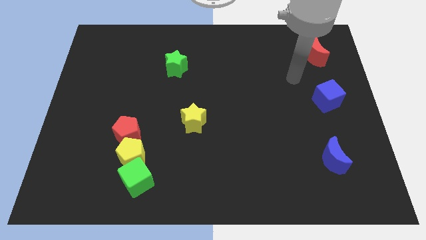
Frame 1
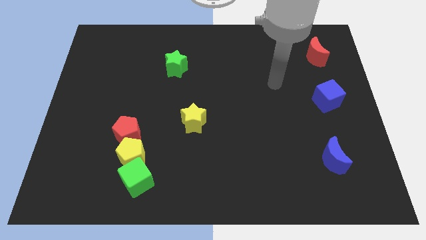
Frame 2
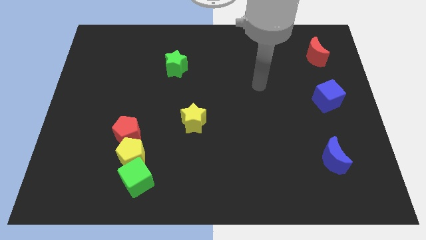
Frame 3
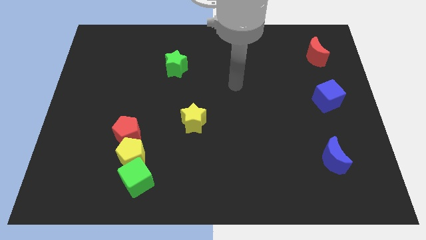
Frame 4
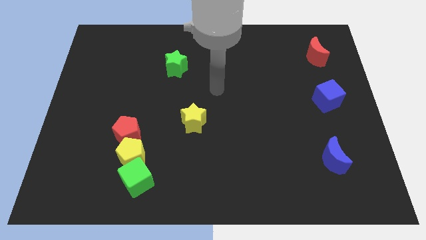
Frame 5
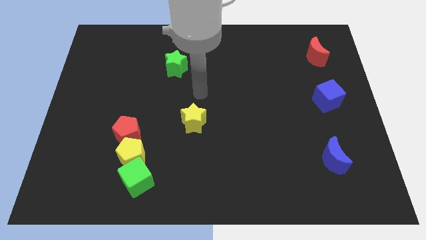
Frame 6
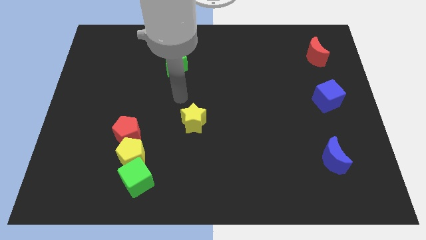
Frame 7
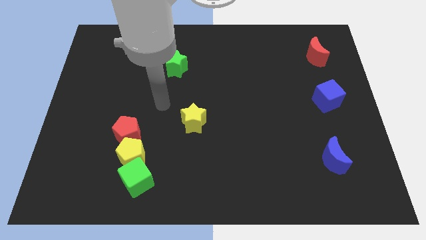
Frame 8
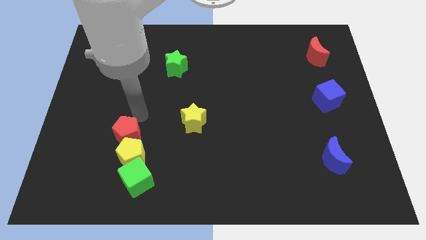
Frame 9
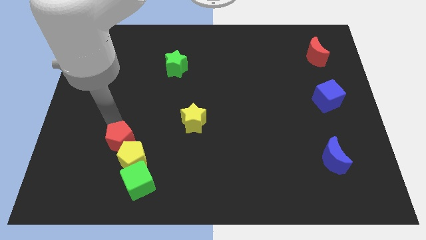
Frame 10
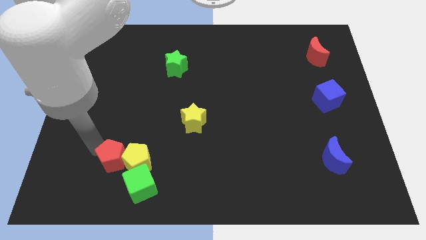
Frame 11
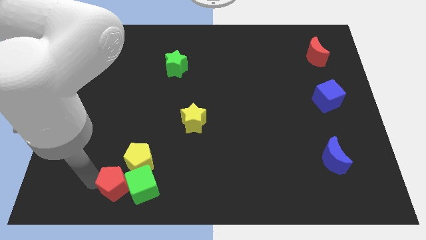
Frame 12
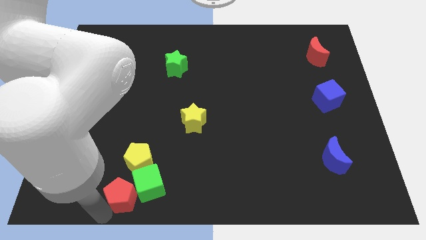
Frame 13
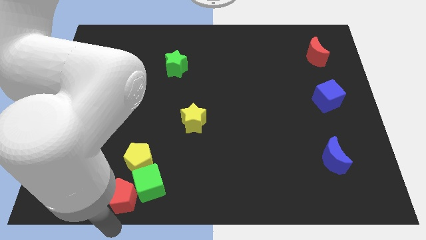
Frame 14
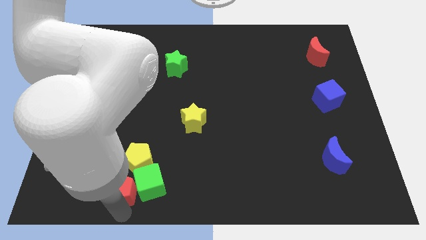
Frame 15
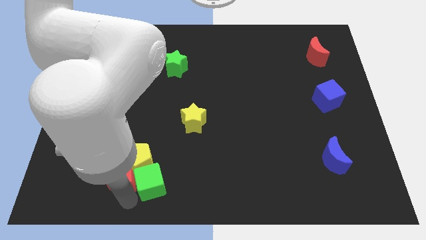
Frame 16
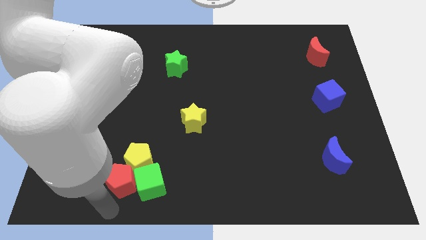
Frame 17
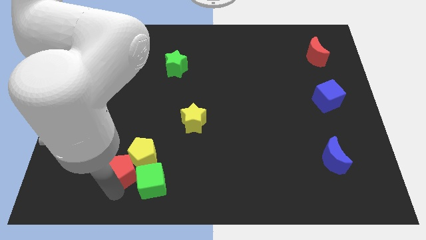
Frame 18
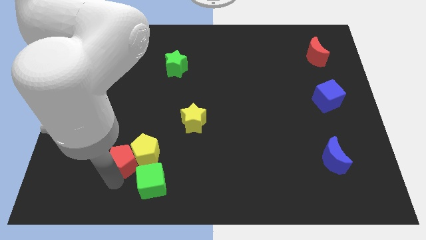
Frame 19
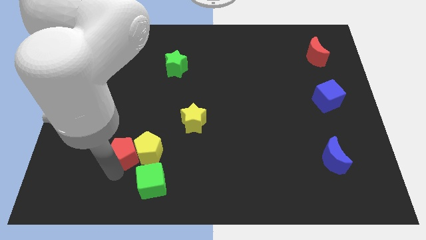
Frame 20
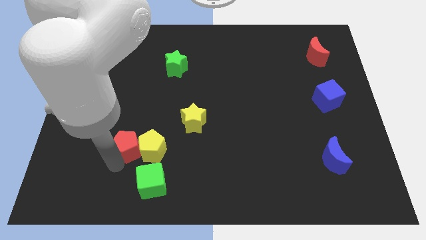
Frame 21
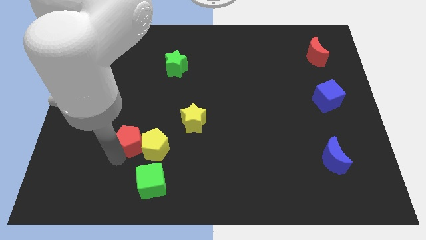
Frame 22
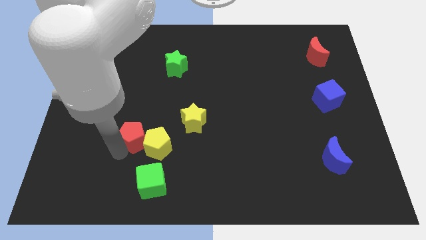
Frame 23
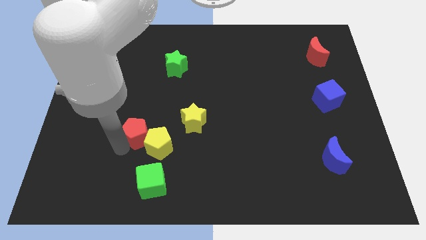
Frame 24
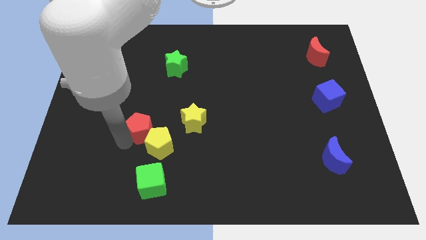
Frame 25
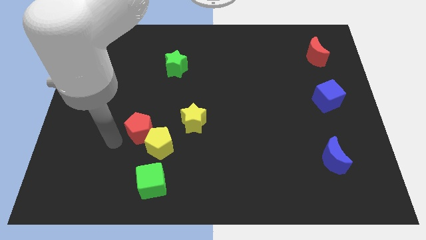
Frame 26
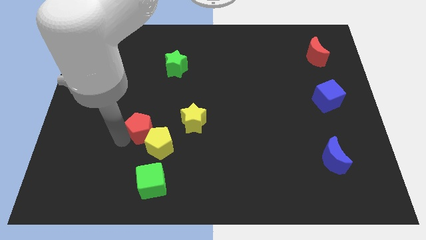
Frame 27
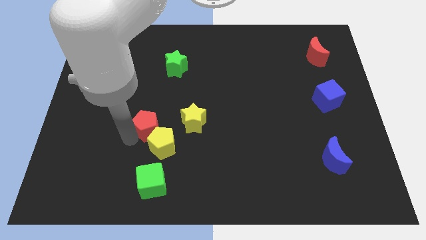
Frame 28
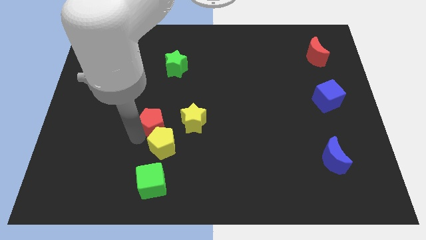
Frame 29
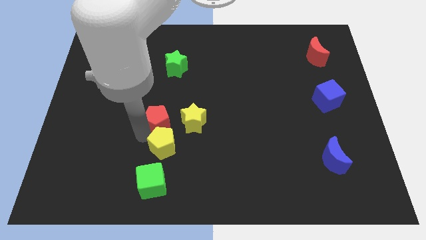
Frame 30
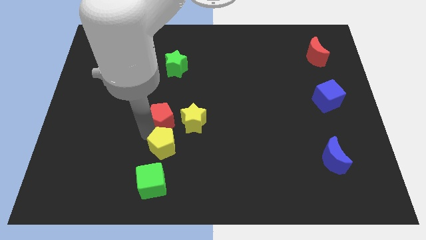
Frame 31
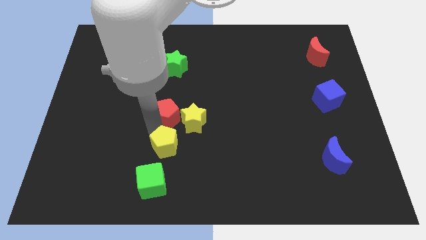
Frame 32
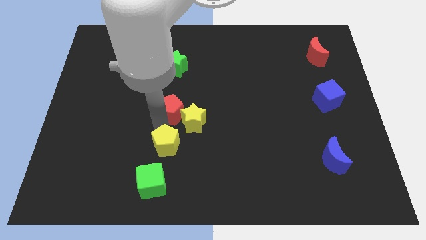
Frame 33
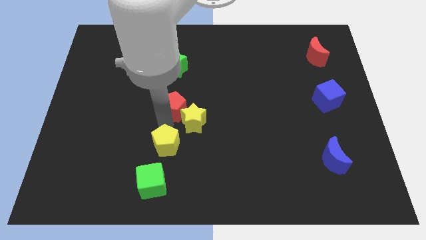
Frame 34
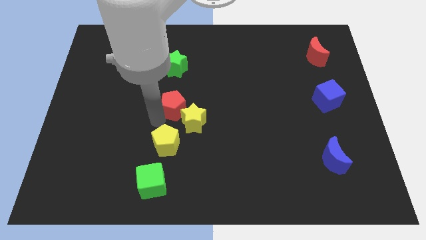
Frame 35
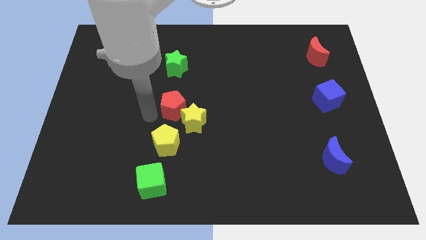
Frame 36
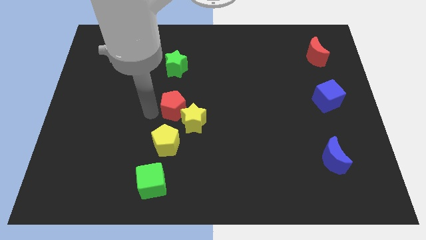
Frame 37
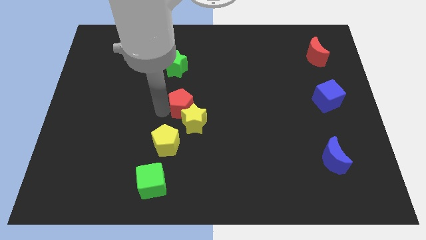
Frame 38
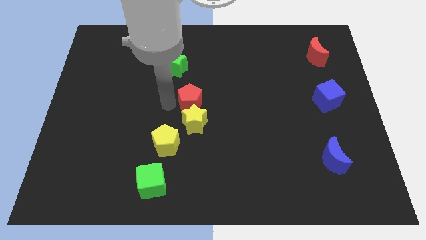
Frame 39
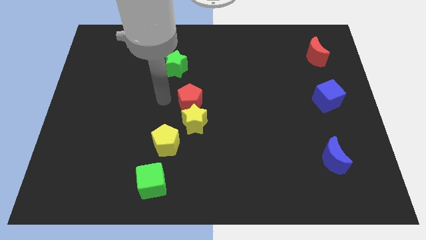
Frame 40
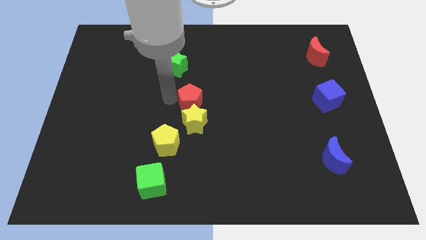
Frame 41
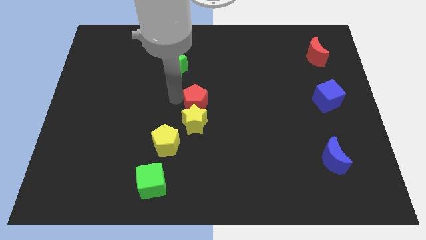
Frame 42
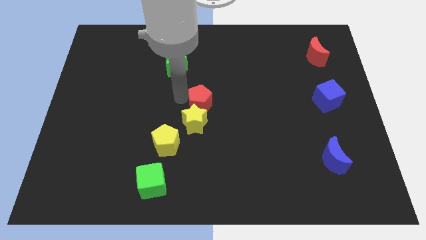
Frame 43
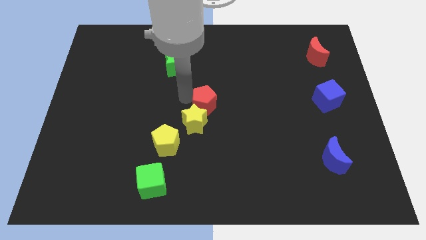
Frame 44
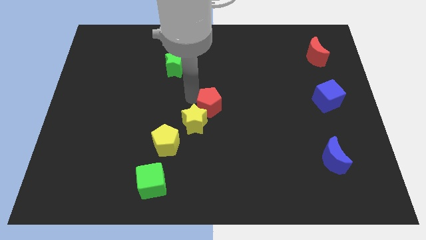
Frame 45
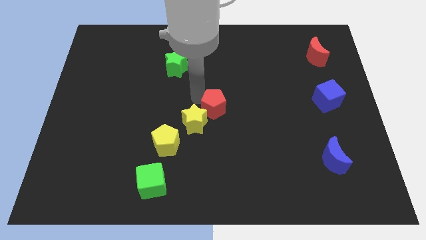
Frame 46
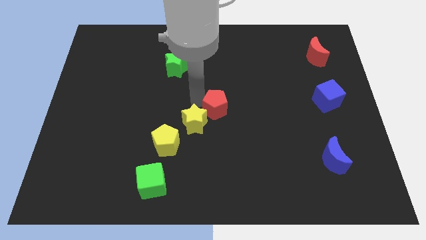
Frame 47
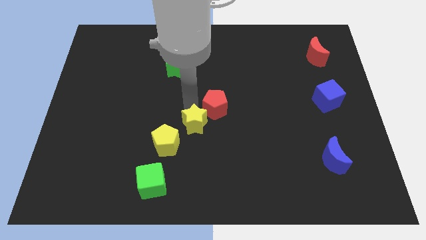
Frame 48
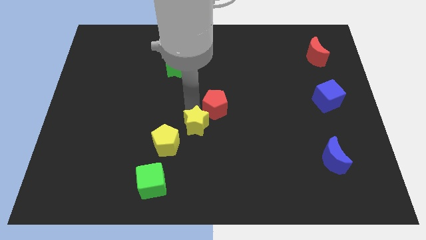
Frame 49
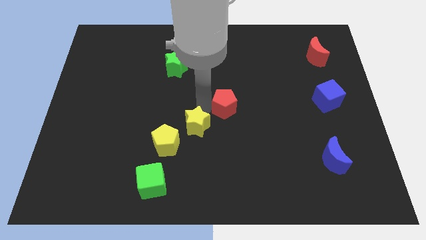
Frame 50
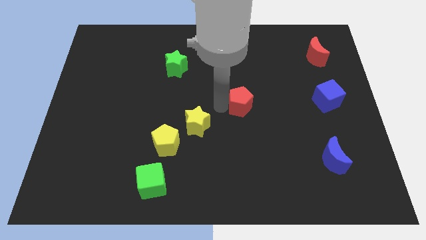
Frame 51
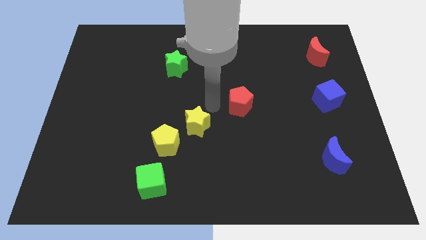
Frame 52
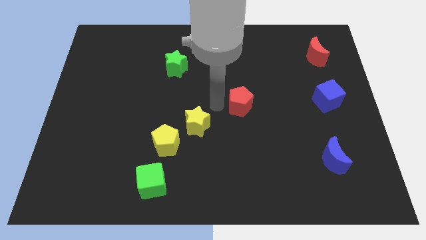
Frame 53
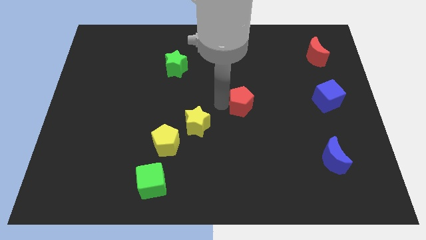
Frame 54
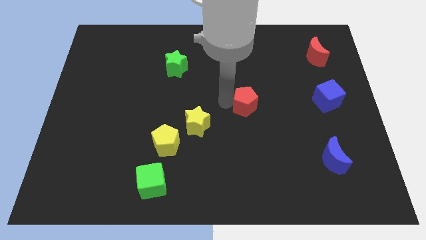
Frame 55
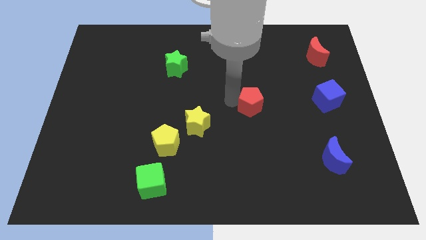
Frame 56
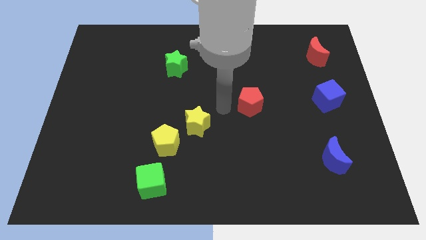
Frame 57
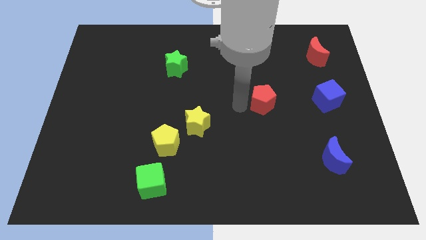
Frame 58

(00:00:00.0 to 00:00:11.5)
slide the red pentagon to the left side of the blue cube
